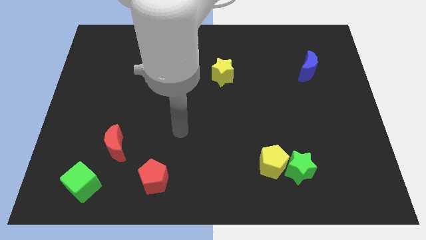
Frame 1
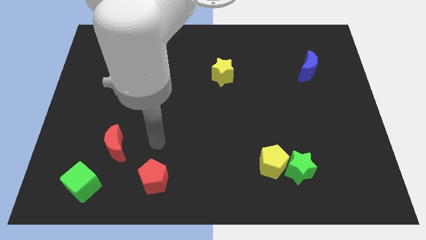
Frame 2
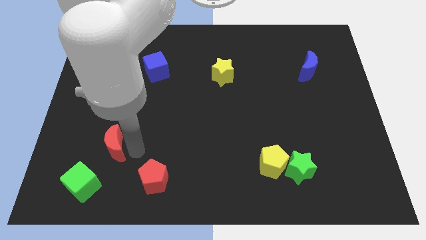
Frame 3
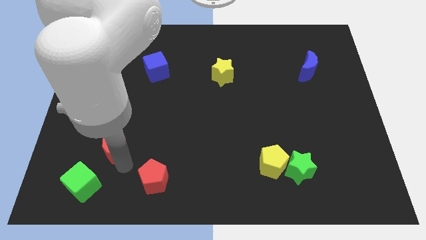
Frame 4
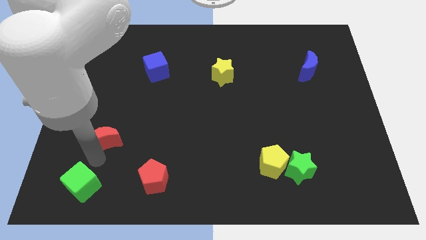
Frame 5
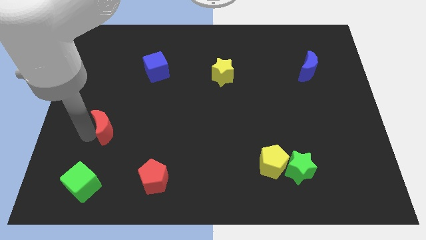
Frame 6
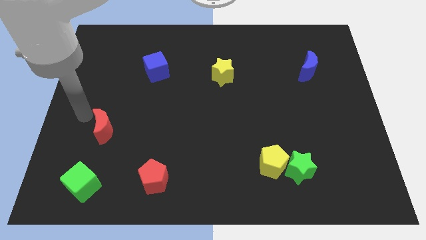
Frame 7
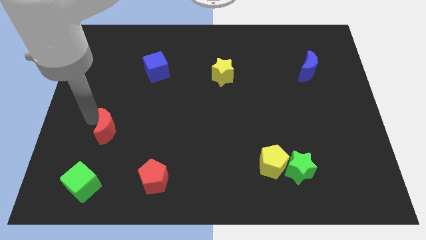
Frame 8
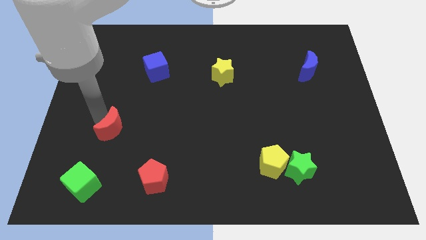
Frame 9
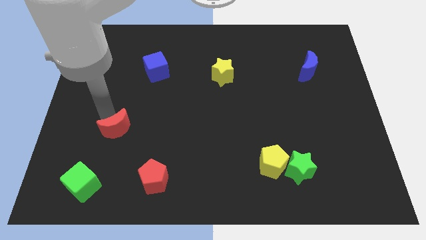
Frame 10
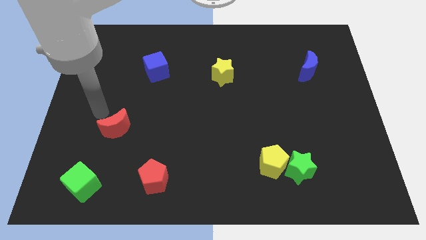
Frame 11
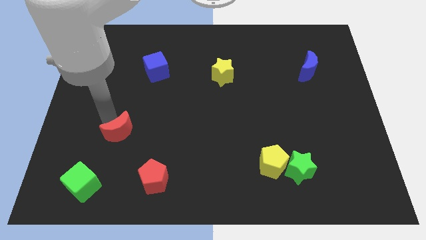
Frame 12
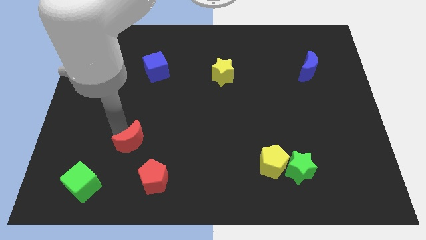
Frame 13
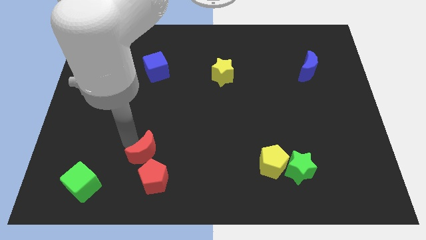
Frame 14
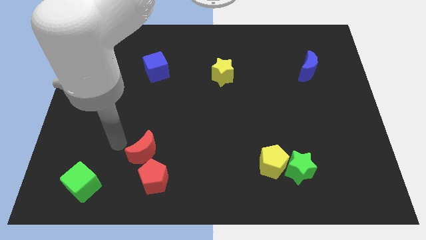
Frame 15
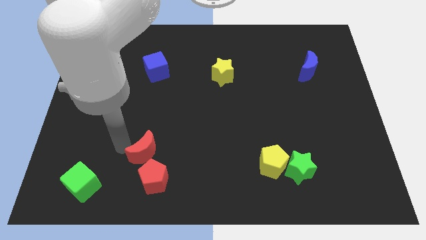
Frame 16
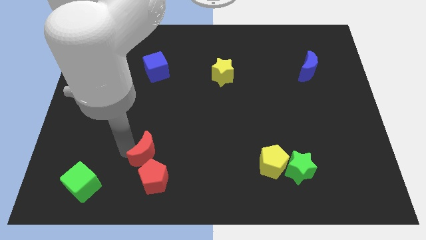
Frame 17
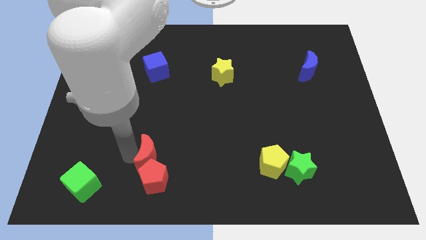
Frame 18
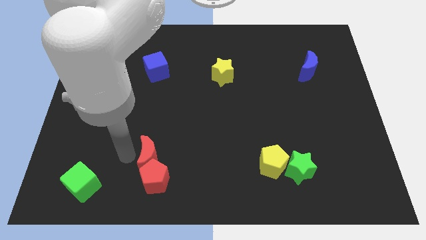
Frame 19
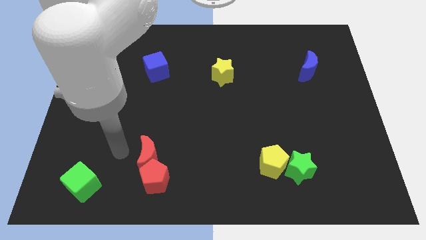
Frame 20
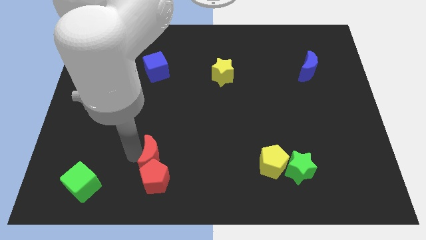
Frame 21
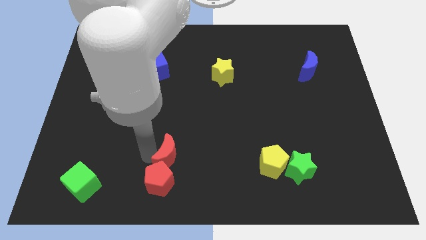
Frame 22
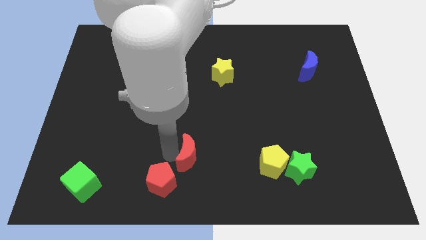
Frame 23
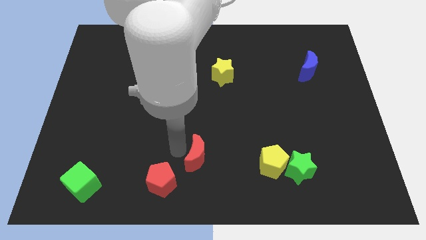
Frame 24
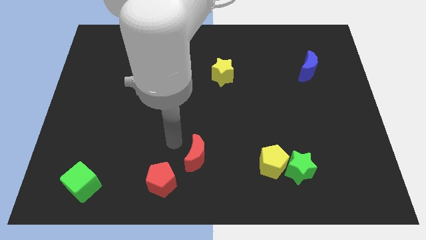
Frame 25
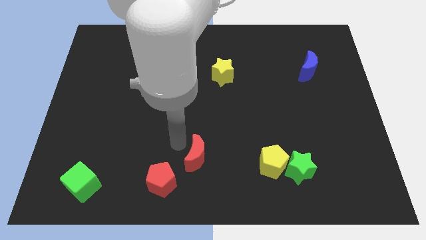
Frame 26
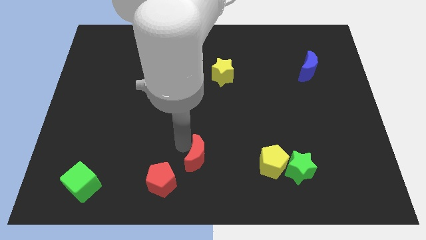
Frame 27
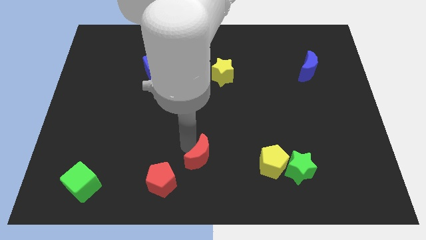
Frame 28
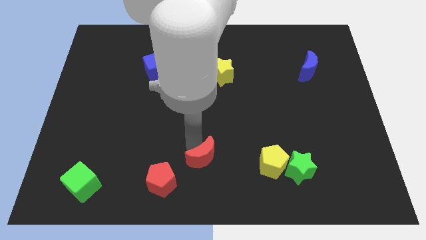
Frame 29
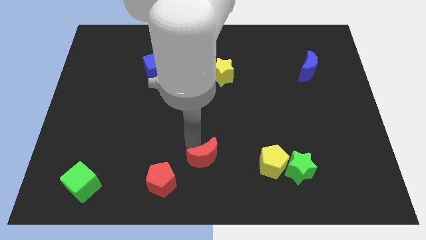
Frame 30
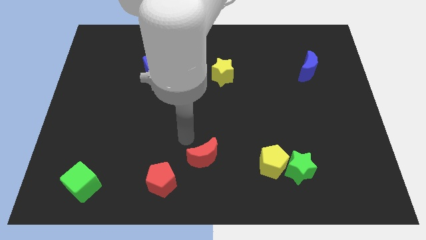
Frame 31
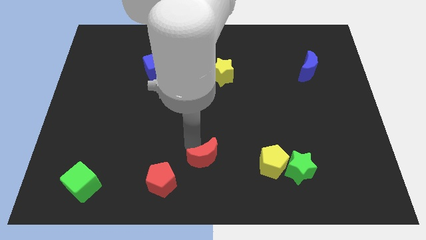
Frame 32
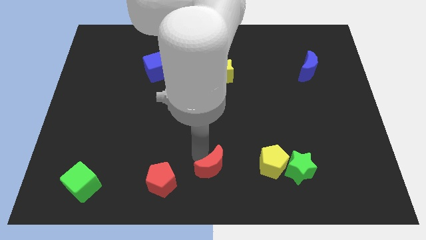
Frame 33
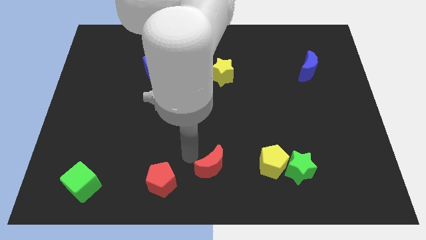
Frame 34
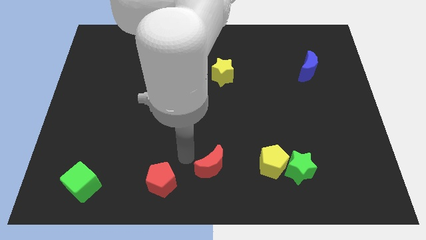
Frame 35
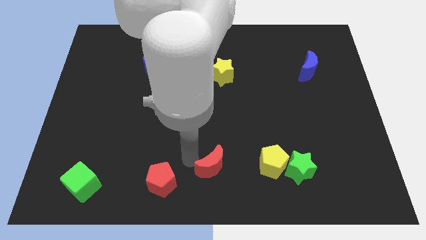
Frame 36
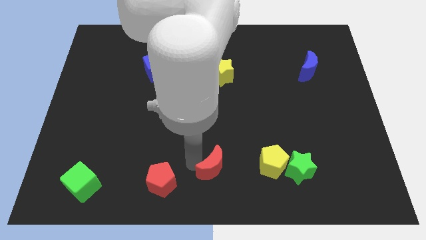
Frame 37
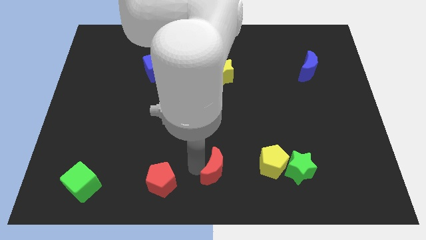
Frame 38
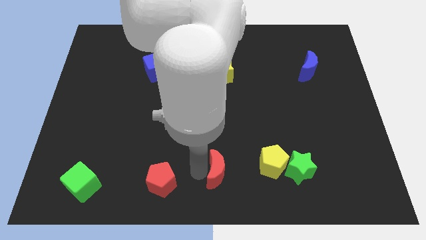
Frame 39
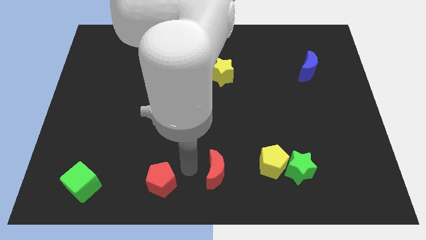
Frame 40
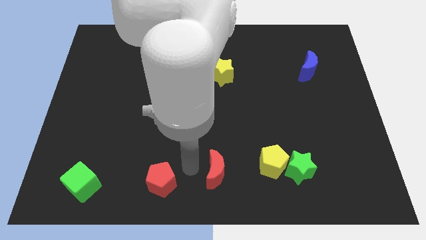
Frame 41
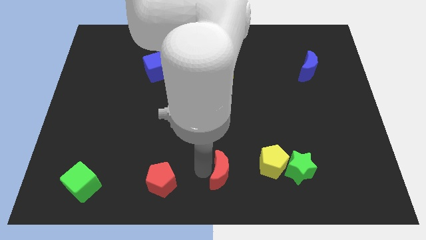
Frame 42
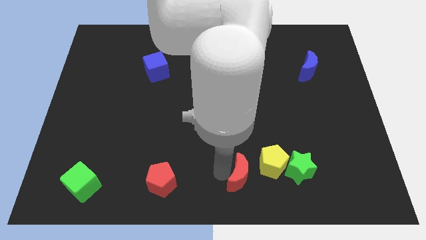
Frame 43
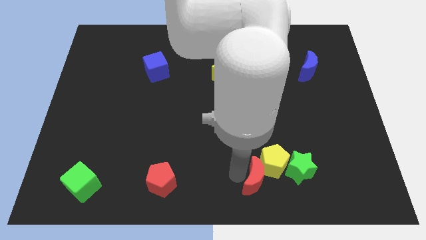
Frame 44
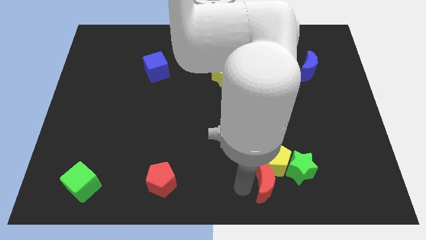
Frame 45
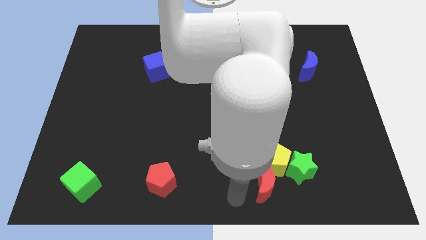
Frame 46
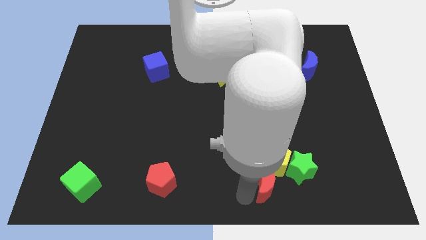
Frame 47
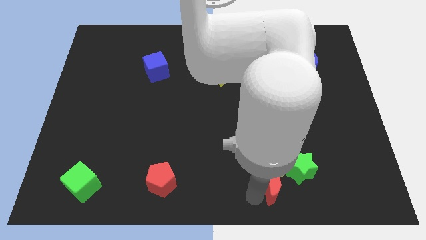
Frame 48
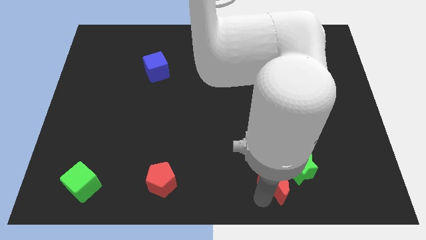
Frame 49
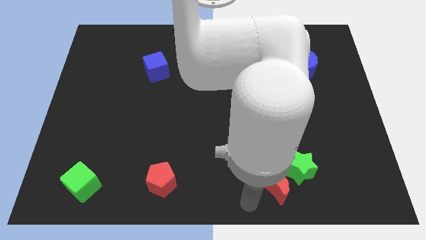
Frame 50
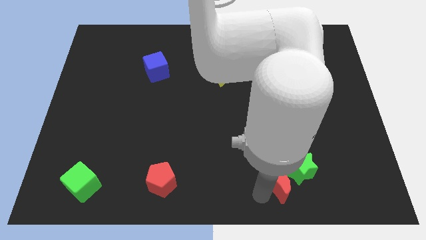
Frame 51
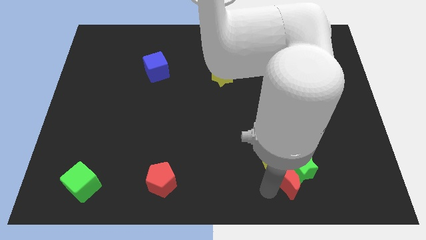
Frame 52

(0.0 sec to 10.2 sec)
slide the red moon next to the green star

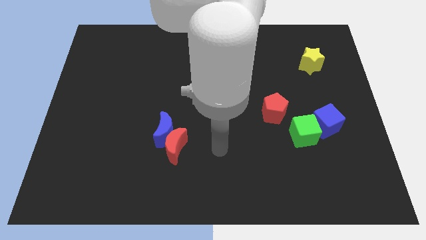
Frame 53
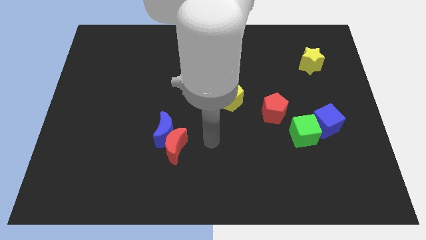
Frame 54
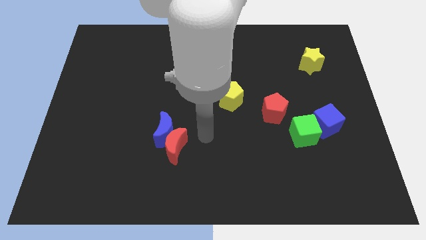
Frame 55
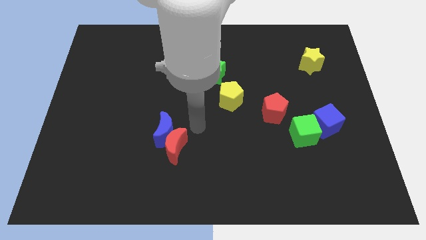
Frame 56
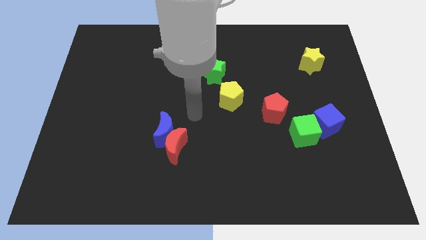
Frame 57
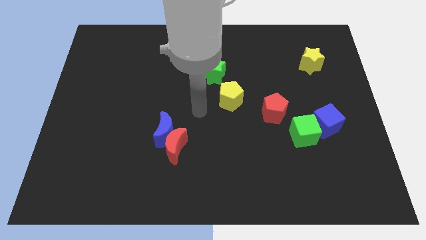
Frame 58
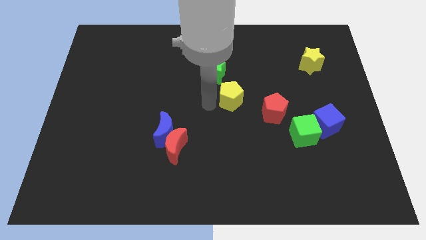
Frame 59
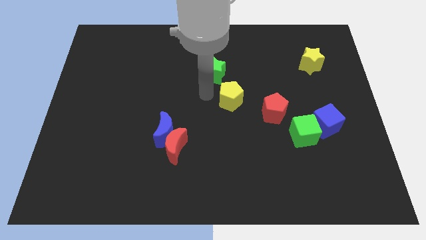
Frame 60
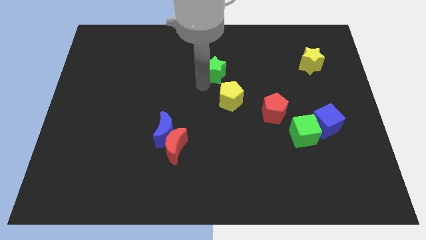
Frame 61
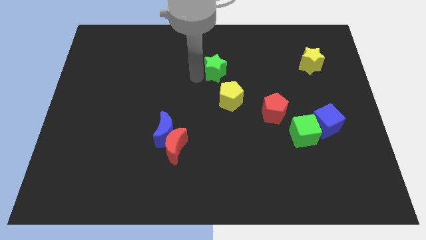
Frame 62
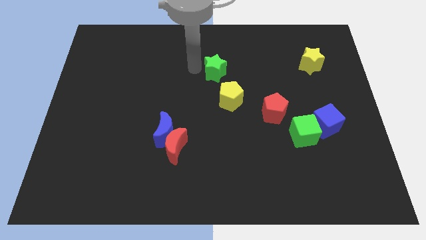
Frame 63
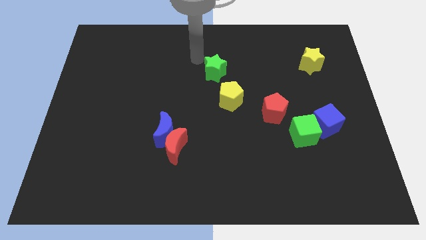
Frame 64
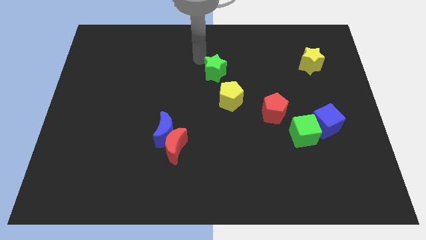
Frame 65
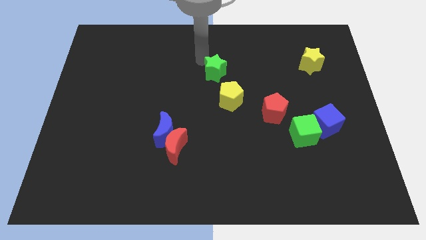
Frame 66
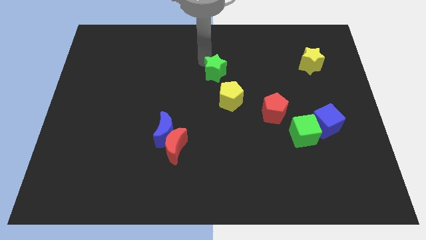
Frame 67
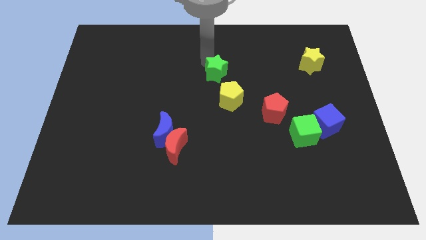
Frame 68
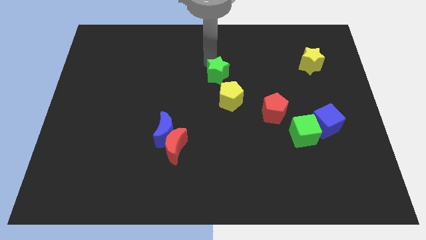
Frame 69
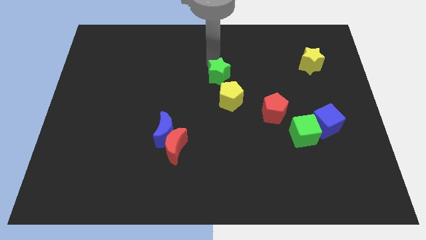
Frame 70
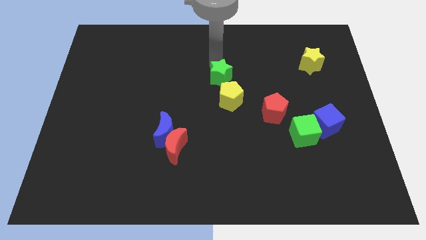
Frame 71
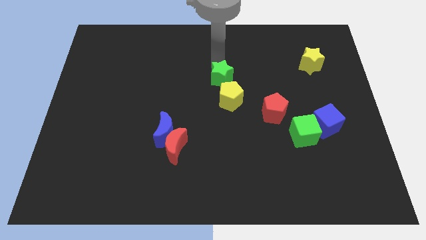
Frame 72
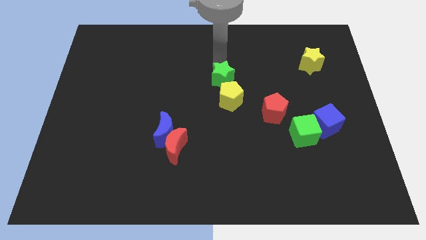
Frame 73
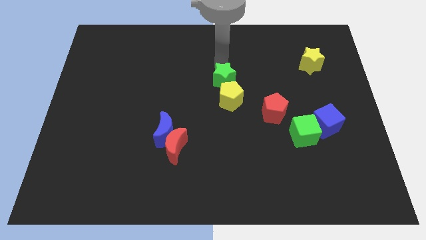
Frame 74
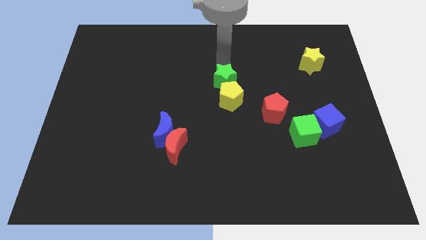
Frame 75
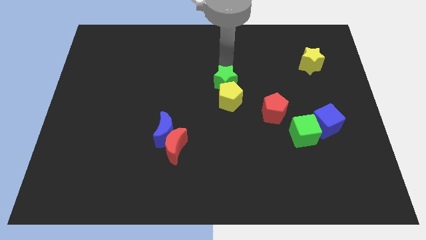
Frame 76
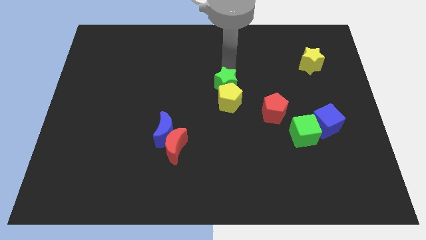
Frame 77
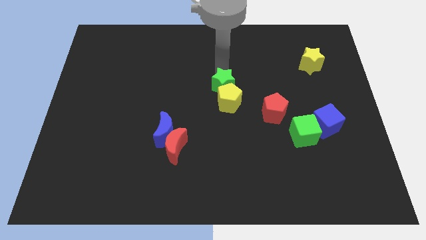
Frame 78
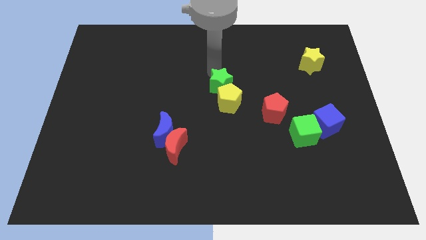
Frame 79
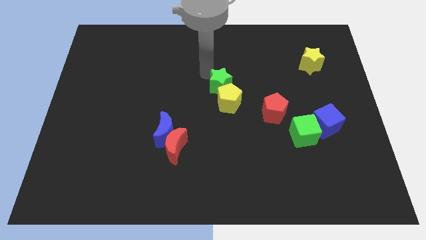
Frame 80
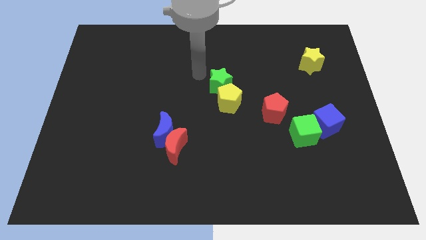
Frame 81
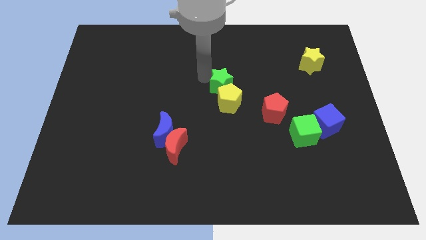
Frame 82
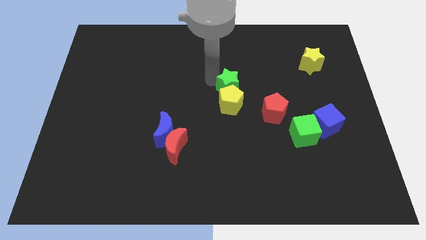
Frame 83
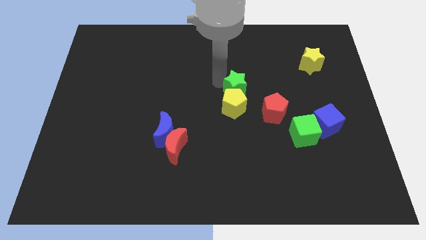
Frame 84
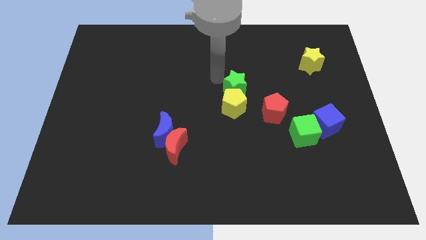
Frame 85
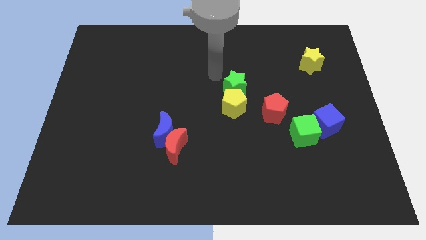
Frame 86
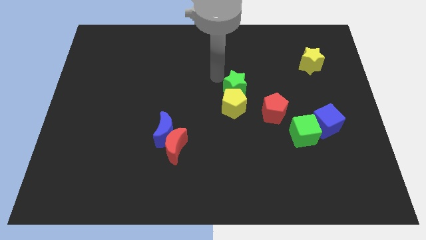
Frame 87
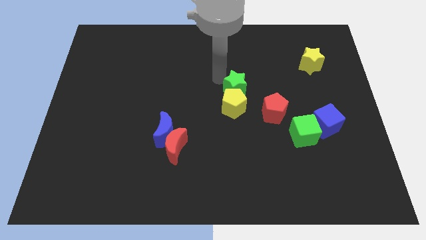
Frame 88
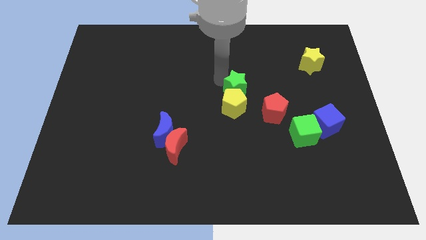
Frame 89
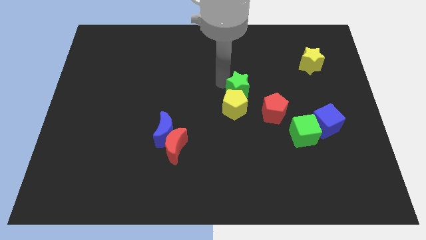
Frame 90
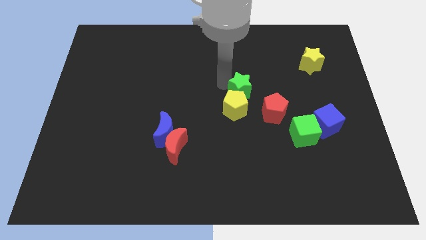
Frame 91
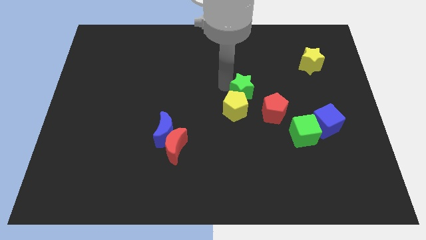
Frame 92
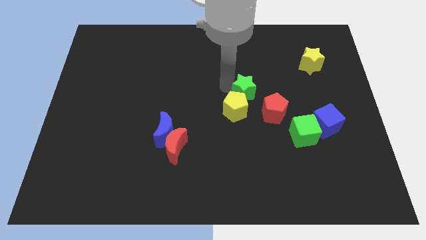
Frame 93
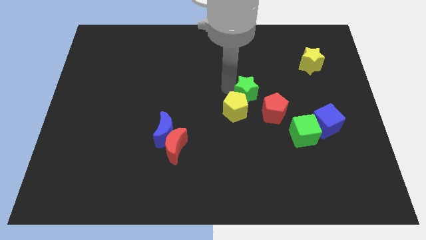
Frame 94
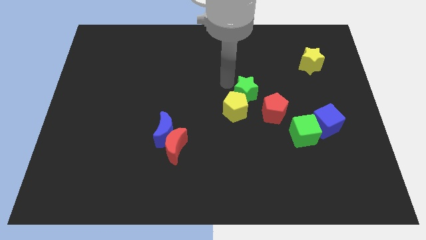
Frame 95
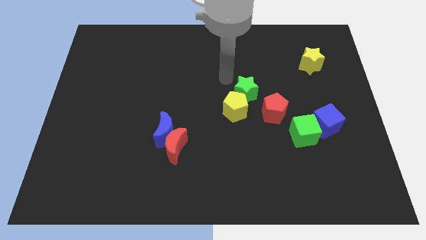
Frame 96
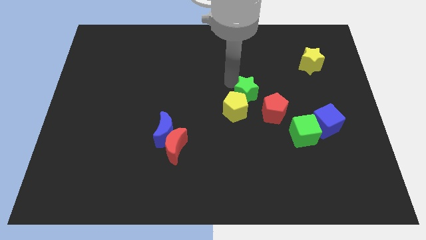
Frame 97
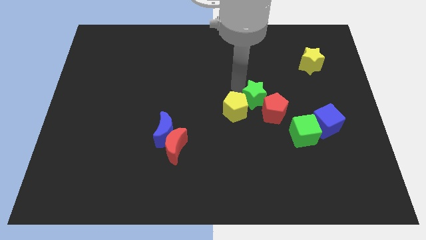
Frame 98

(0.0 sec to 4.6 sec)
put the green star close to the red pentagon
